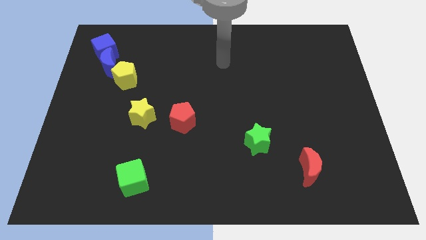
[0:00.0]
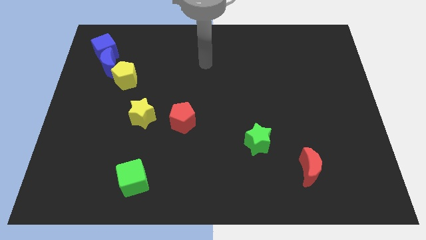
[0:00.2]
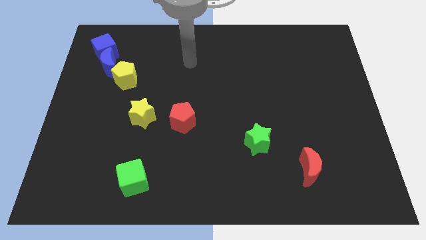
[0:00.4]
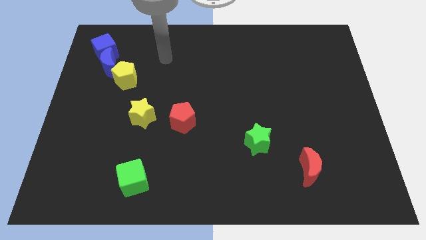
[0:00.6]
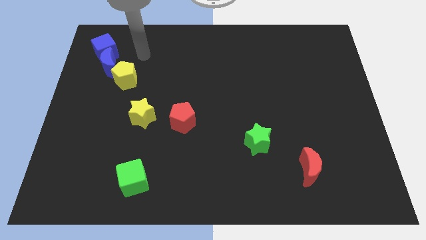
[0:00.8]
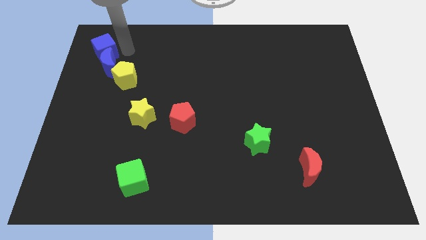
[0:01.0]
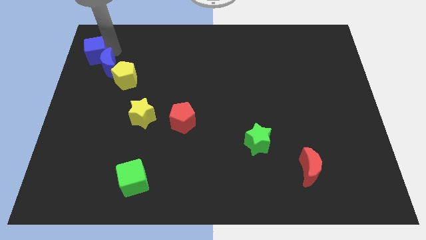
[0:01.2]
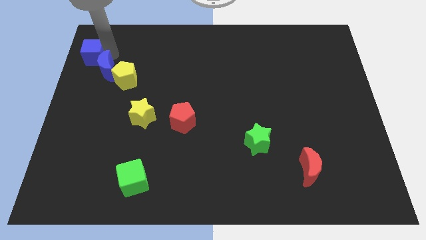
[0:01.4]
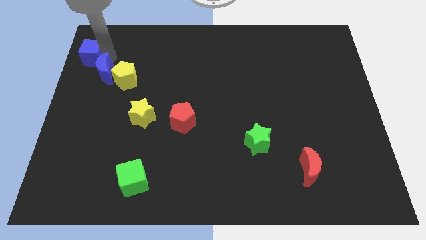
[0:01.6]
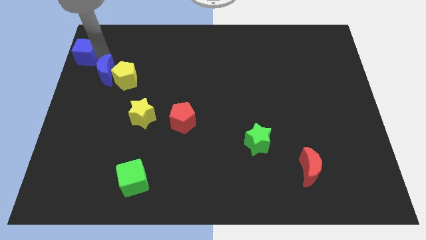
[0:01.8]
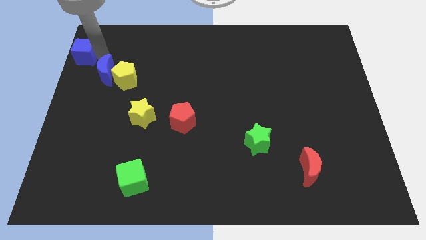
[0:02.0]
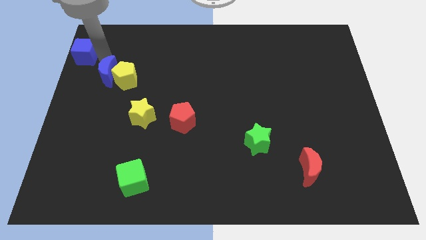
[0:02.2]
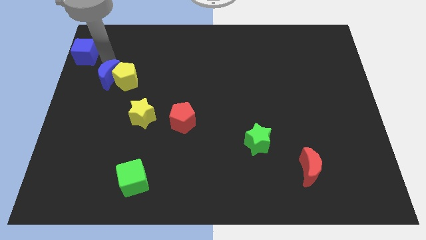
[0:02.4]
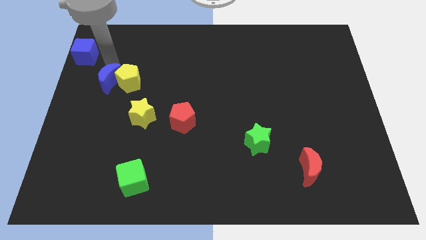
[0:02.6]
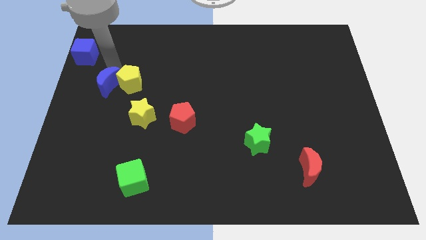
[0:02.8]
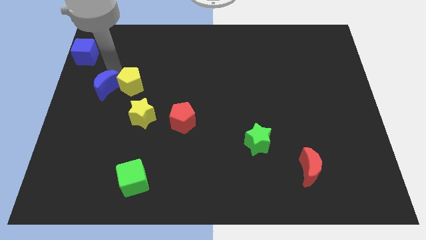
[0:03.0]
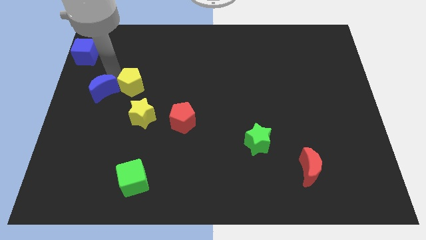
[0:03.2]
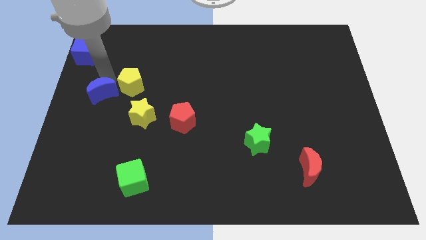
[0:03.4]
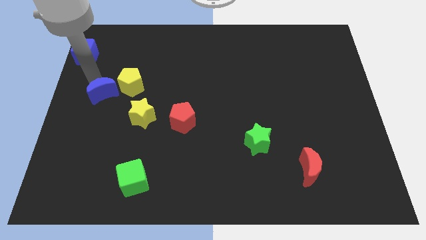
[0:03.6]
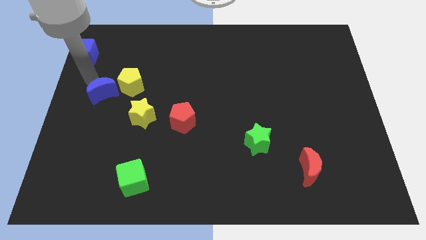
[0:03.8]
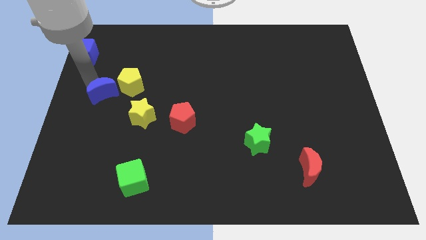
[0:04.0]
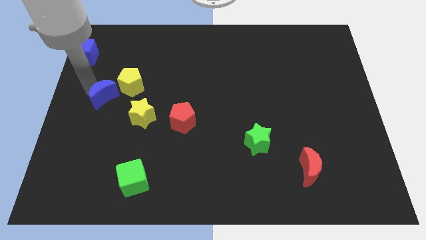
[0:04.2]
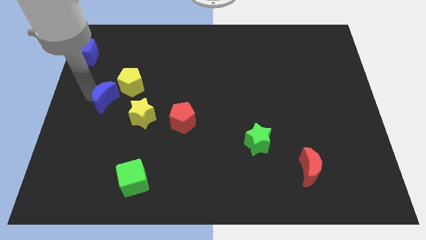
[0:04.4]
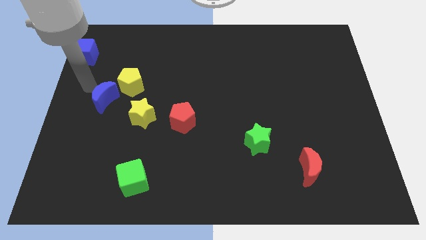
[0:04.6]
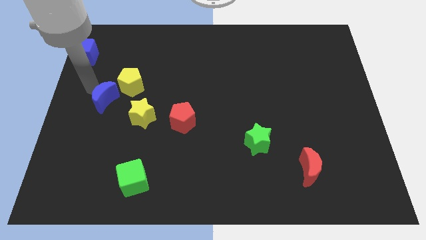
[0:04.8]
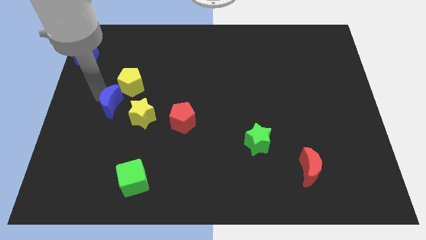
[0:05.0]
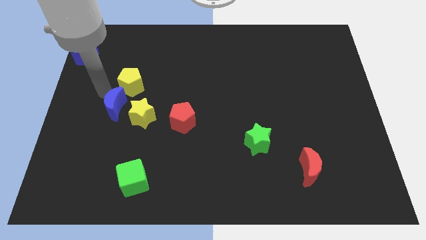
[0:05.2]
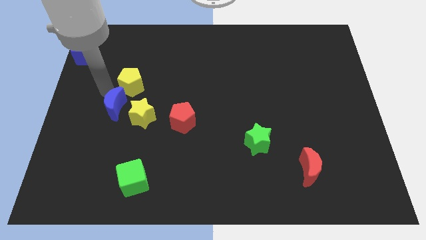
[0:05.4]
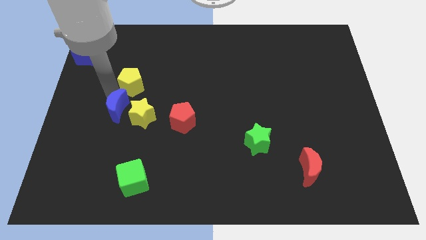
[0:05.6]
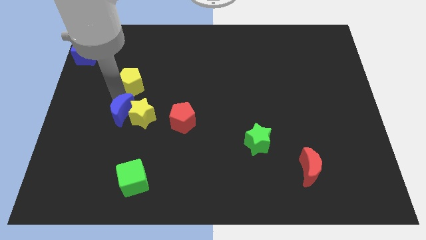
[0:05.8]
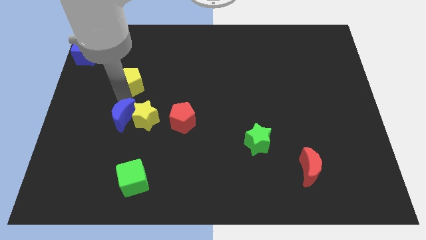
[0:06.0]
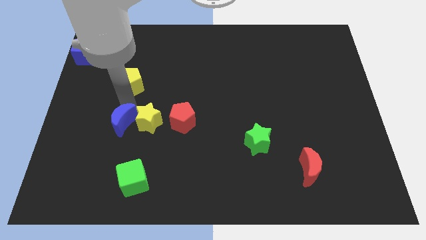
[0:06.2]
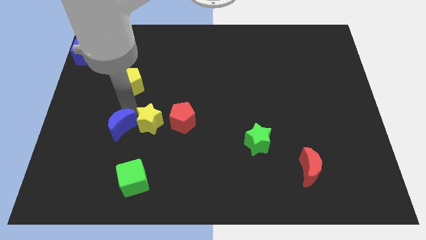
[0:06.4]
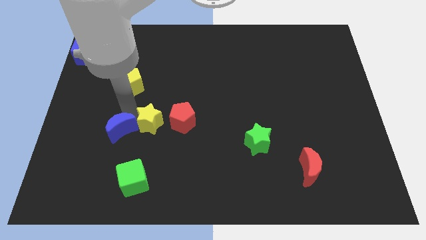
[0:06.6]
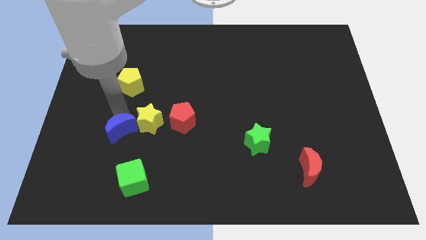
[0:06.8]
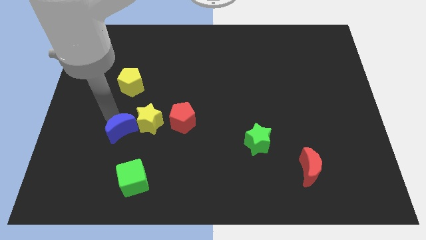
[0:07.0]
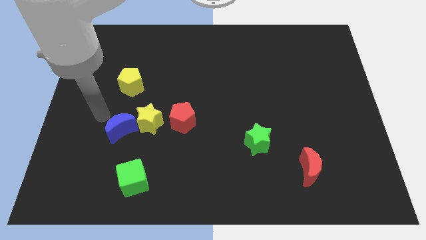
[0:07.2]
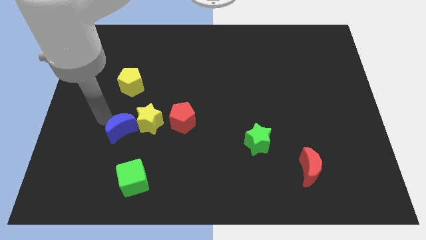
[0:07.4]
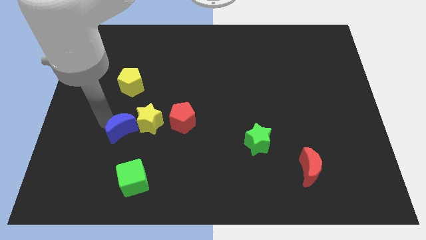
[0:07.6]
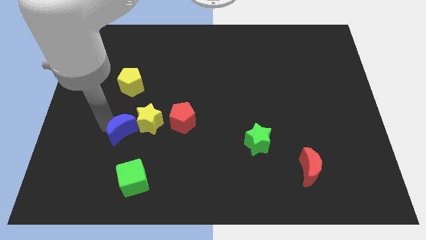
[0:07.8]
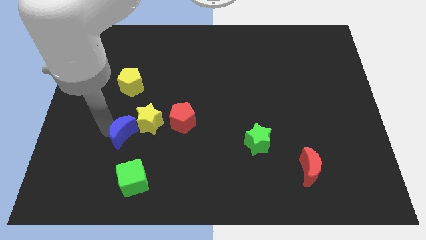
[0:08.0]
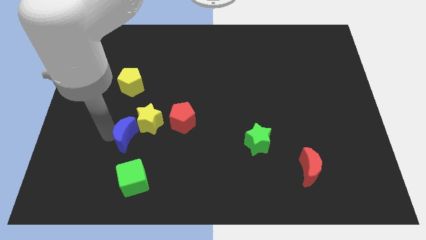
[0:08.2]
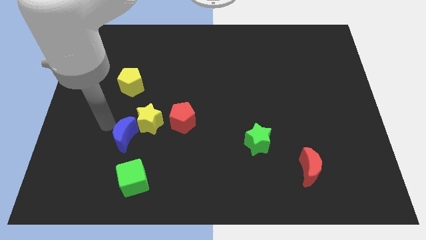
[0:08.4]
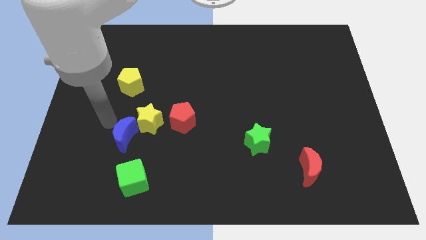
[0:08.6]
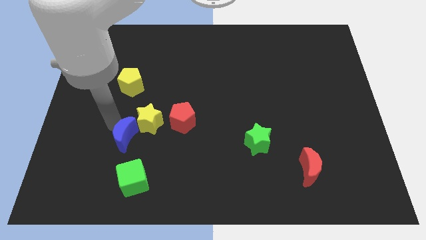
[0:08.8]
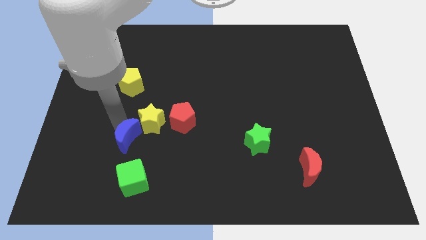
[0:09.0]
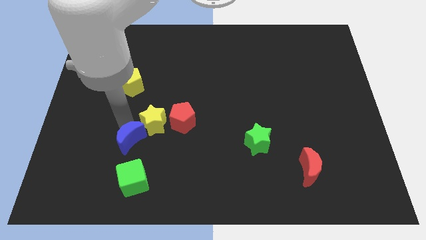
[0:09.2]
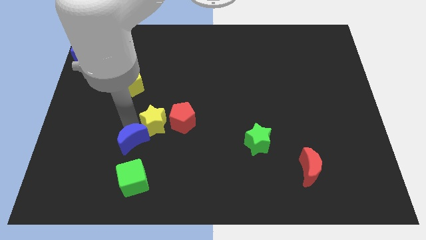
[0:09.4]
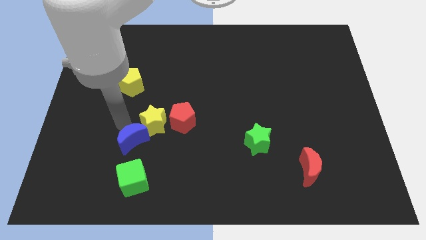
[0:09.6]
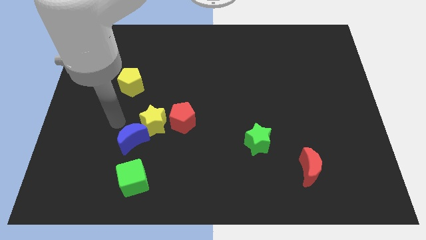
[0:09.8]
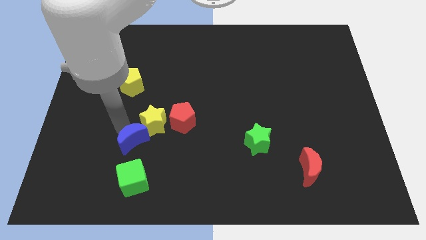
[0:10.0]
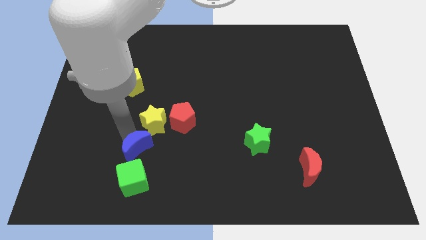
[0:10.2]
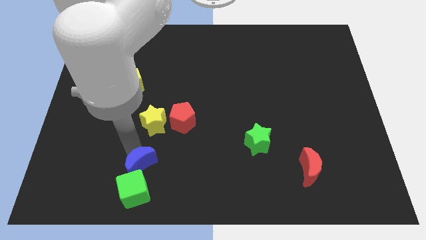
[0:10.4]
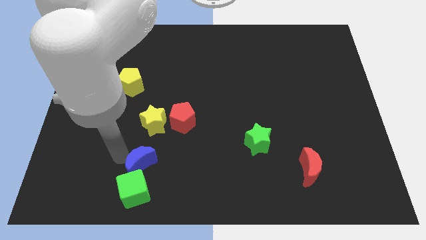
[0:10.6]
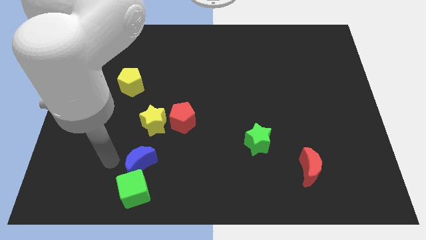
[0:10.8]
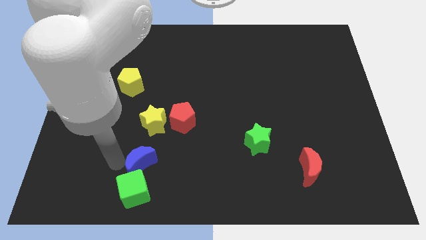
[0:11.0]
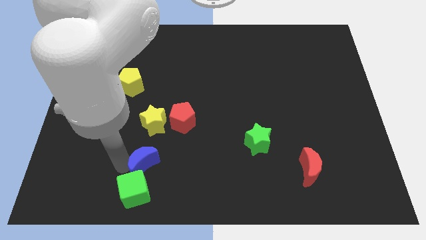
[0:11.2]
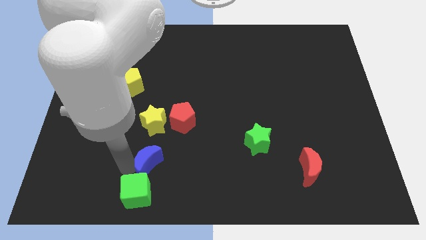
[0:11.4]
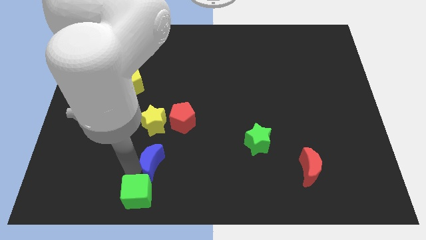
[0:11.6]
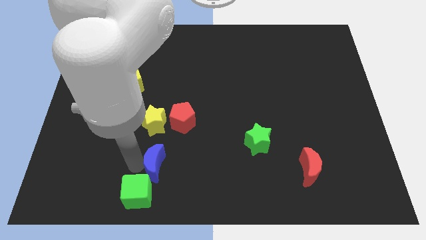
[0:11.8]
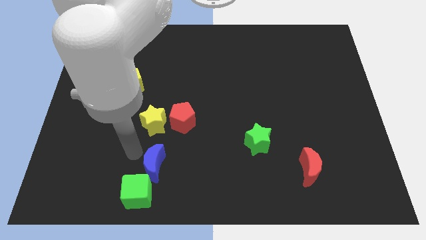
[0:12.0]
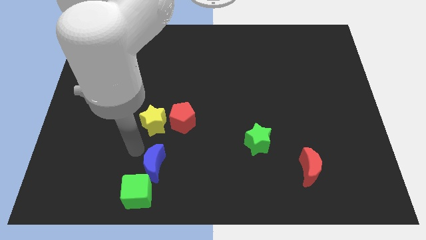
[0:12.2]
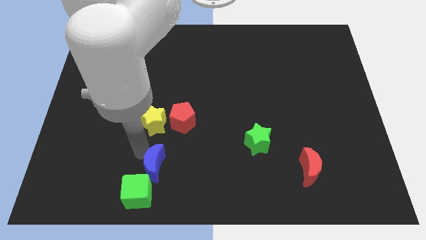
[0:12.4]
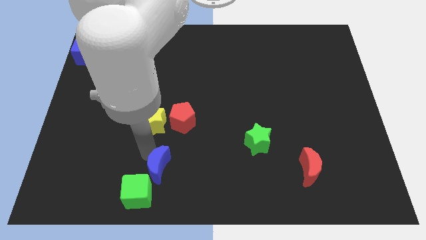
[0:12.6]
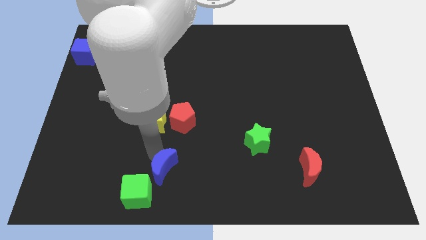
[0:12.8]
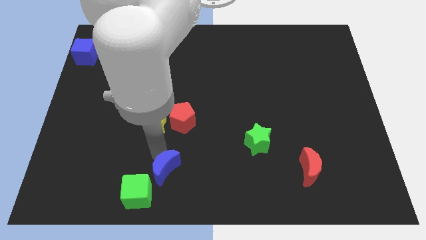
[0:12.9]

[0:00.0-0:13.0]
move the blue moon to the bottom side
